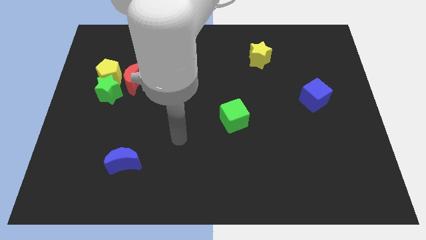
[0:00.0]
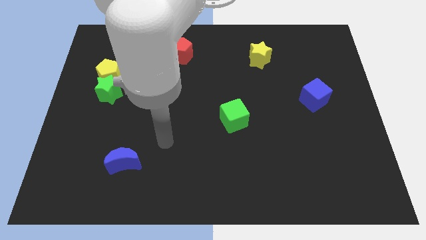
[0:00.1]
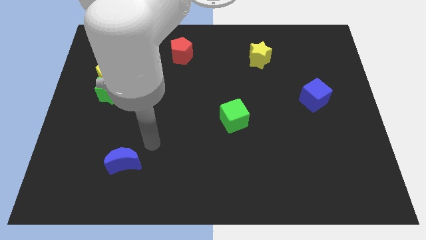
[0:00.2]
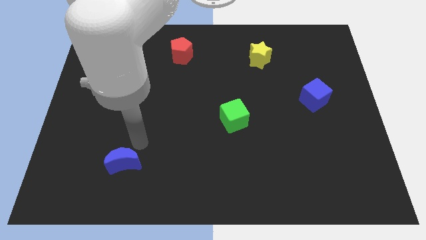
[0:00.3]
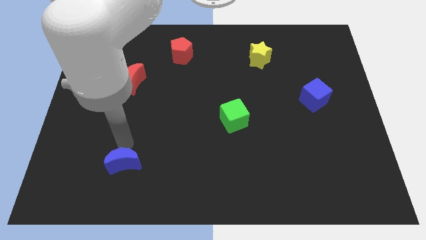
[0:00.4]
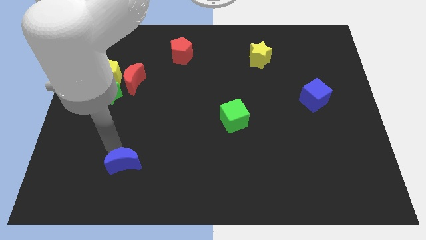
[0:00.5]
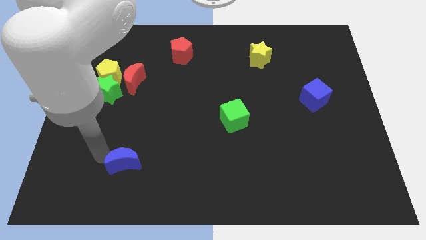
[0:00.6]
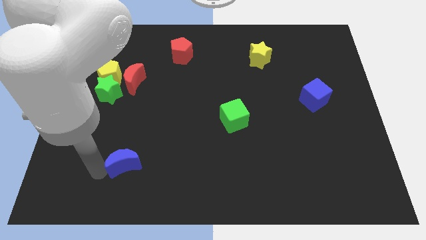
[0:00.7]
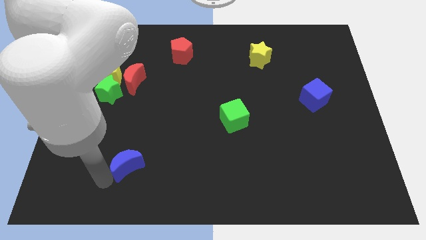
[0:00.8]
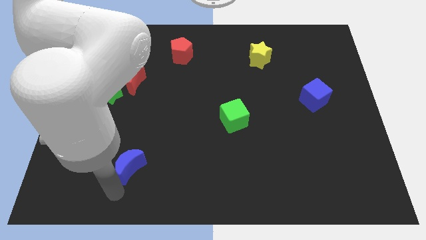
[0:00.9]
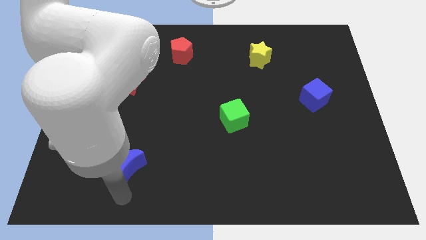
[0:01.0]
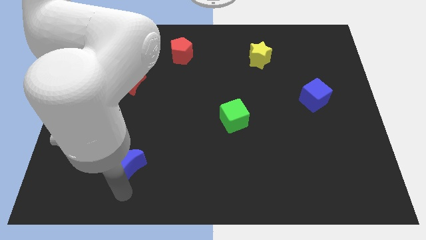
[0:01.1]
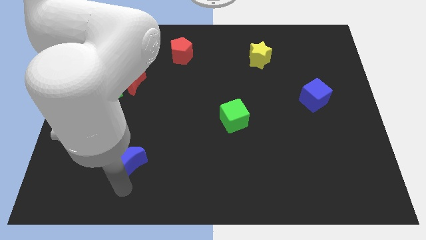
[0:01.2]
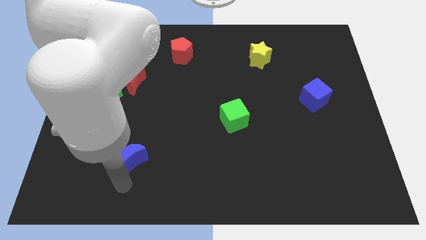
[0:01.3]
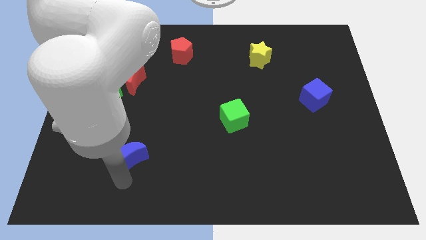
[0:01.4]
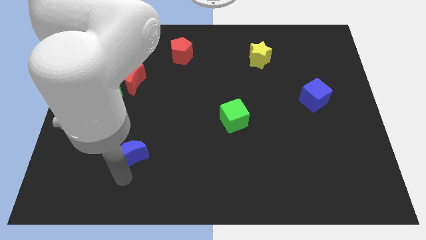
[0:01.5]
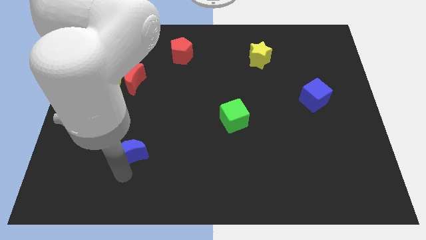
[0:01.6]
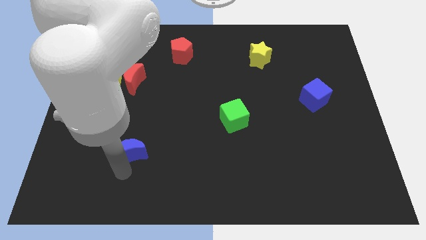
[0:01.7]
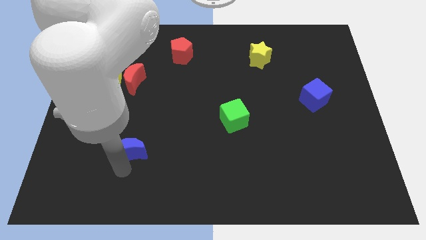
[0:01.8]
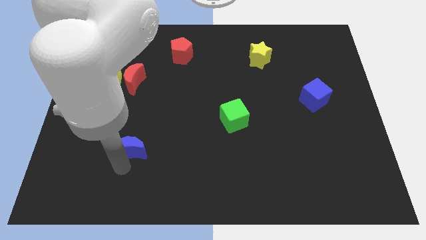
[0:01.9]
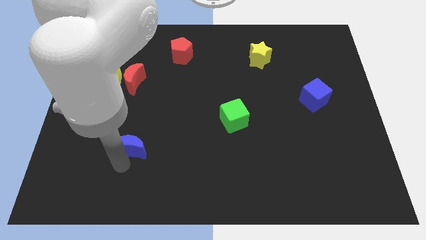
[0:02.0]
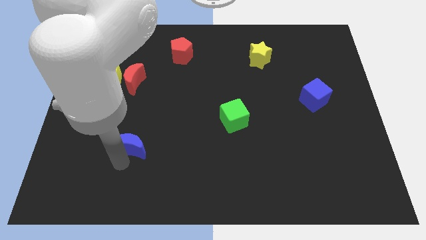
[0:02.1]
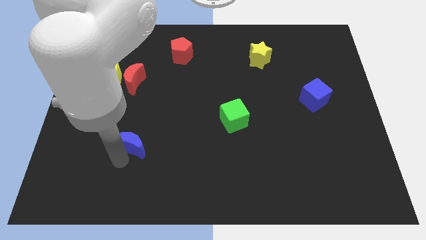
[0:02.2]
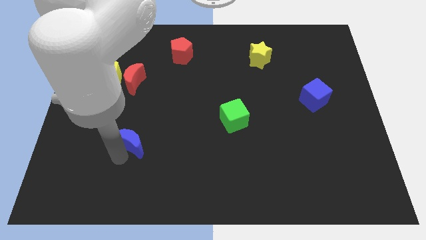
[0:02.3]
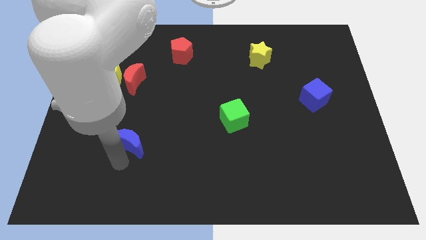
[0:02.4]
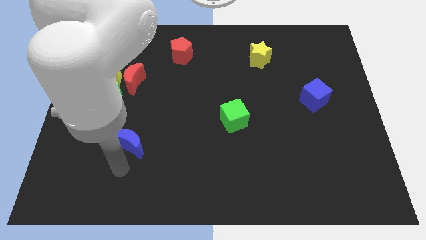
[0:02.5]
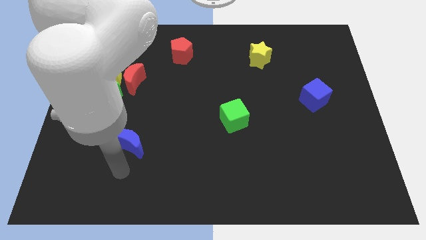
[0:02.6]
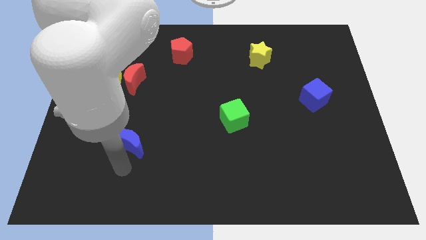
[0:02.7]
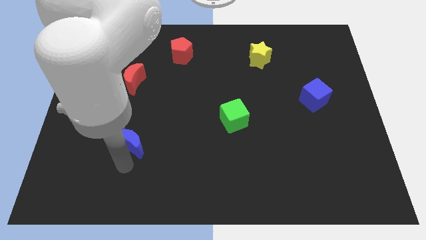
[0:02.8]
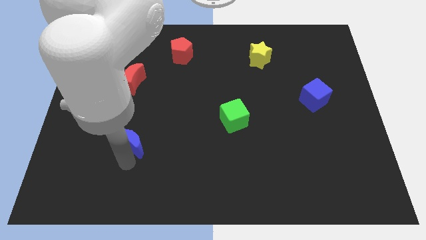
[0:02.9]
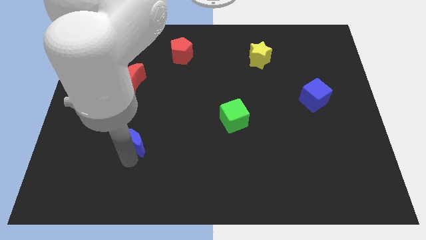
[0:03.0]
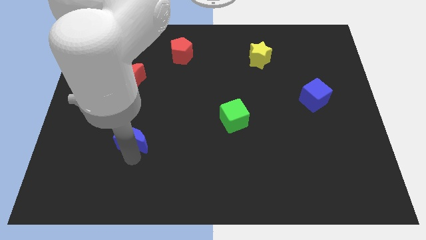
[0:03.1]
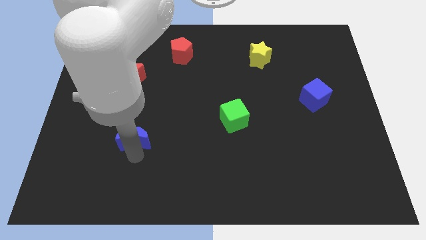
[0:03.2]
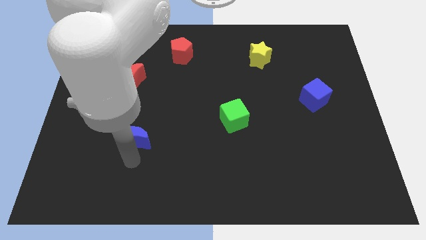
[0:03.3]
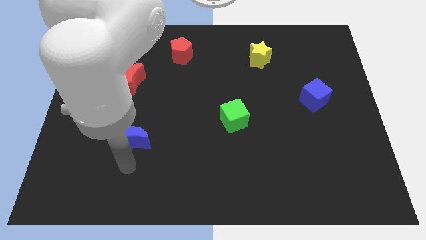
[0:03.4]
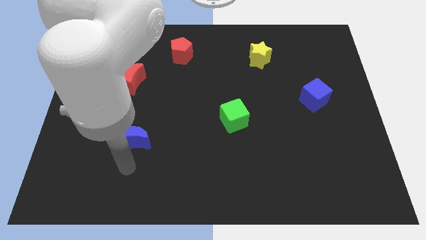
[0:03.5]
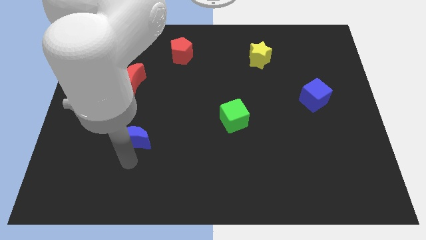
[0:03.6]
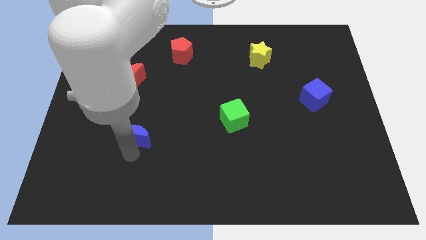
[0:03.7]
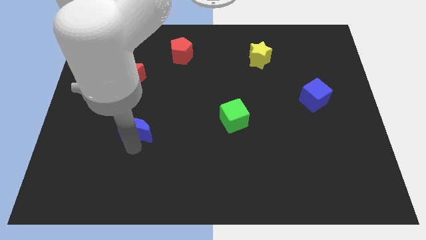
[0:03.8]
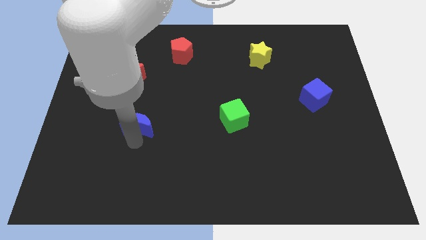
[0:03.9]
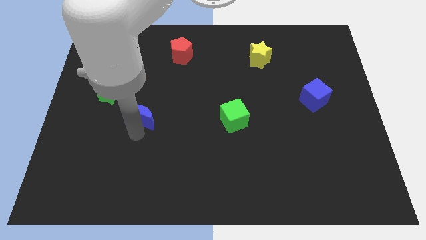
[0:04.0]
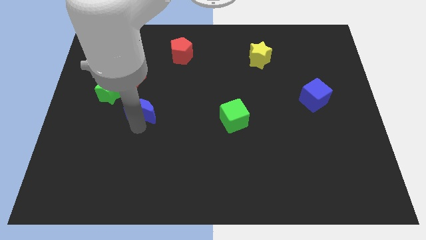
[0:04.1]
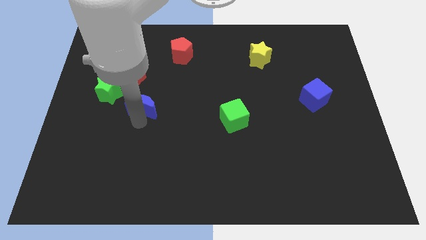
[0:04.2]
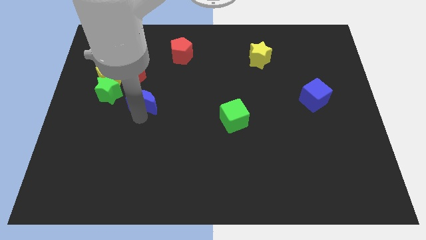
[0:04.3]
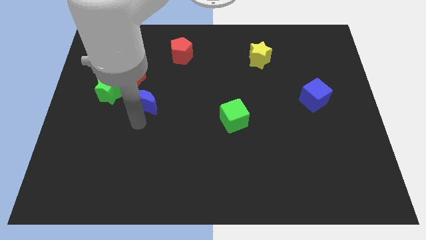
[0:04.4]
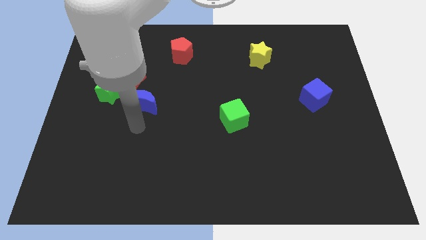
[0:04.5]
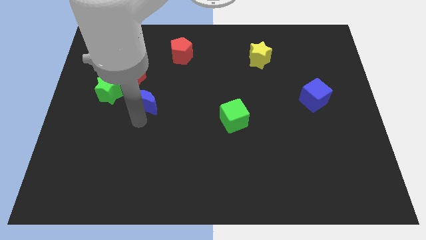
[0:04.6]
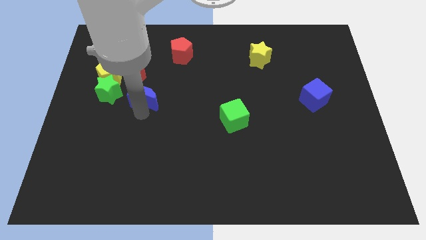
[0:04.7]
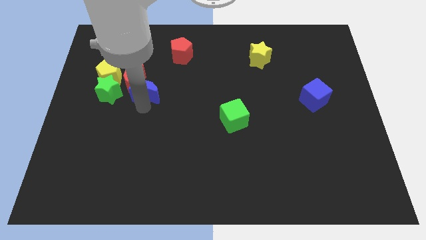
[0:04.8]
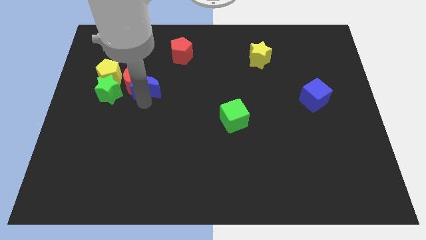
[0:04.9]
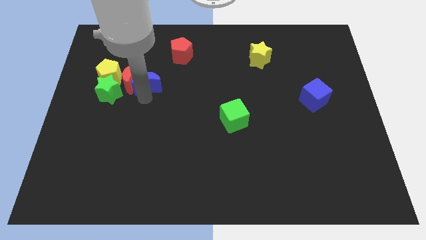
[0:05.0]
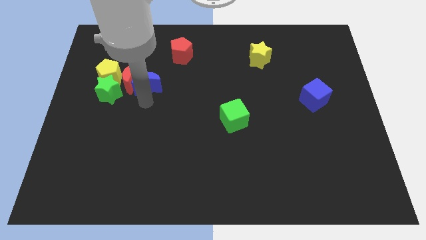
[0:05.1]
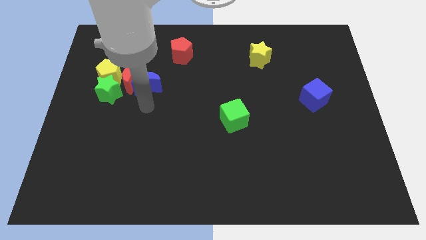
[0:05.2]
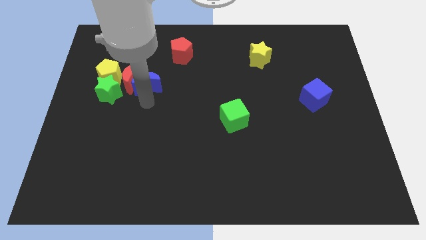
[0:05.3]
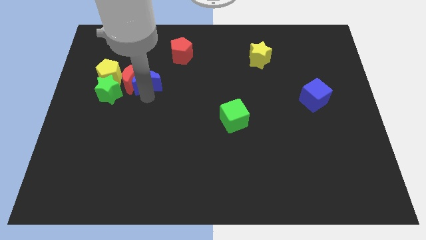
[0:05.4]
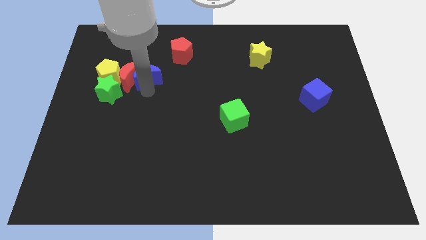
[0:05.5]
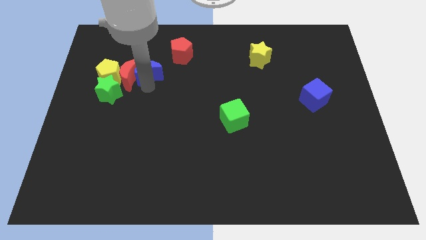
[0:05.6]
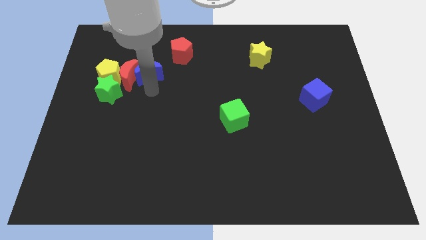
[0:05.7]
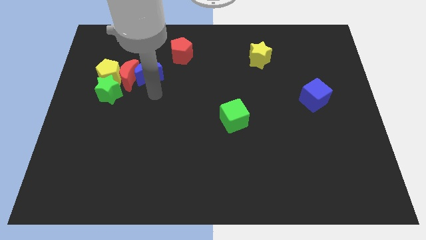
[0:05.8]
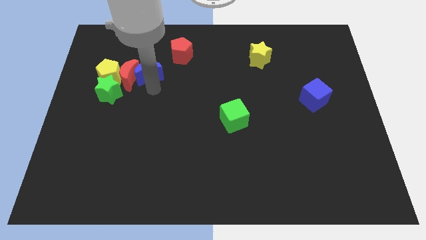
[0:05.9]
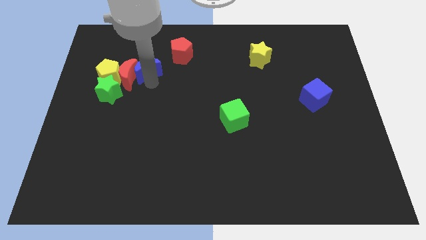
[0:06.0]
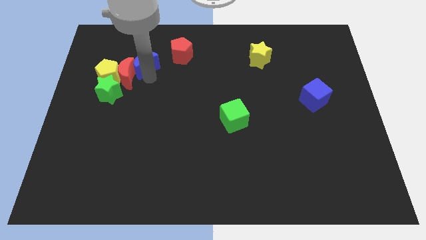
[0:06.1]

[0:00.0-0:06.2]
put the blue moon to the left of the red pentagon

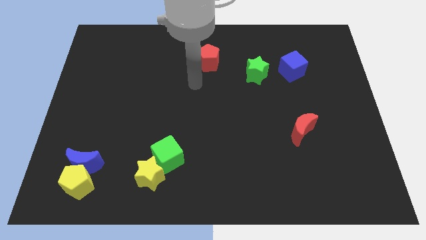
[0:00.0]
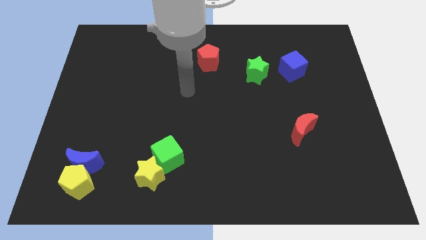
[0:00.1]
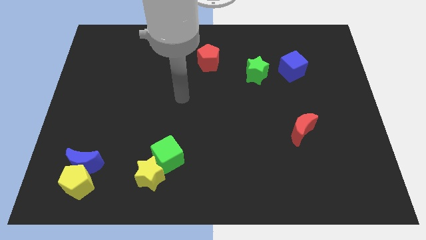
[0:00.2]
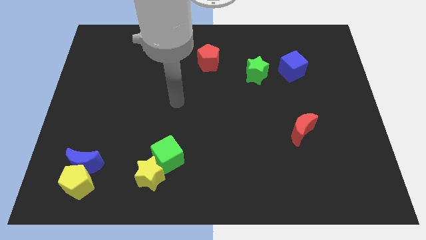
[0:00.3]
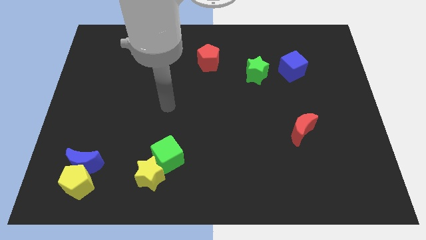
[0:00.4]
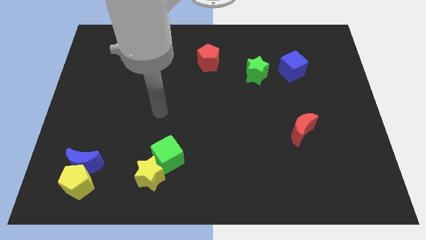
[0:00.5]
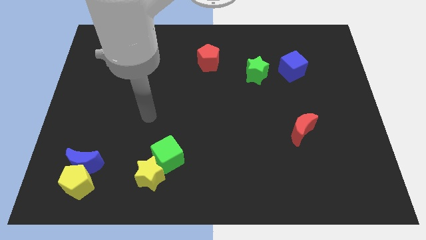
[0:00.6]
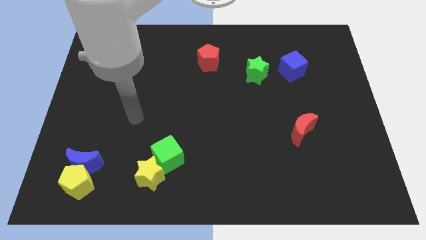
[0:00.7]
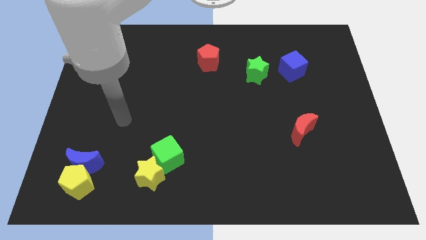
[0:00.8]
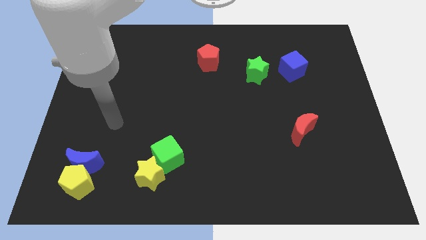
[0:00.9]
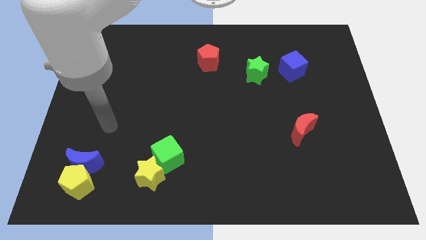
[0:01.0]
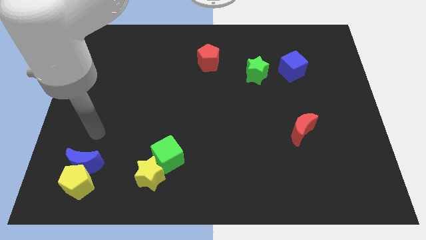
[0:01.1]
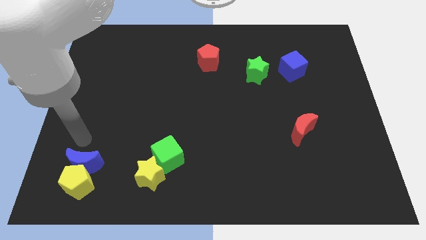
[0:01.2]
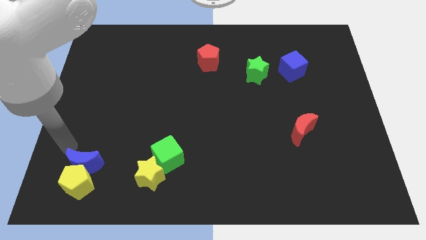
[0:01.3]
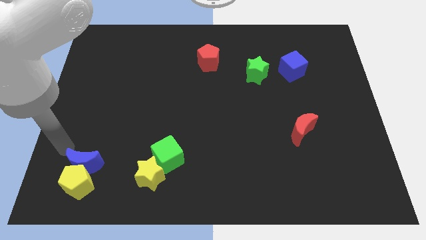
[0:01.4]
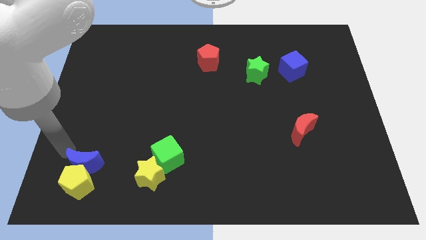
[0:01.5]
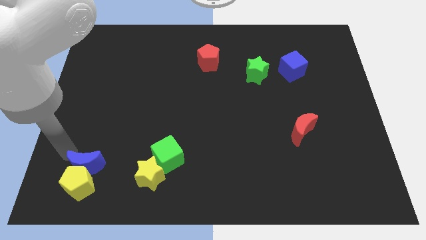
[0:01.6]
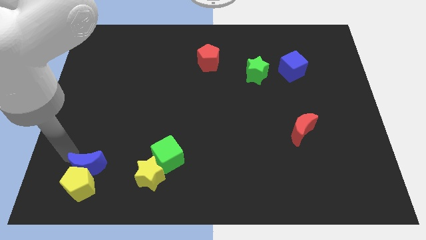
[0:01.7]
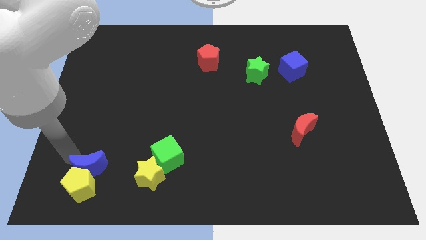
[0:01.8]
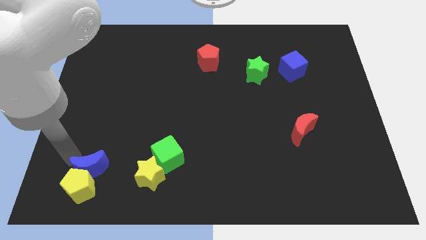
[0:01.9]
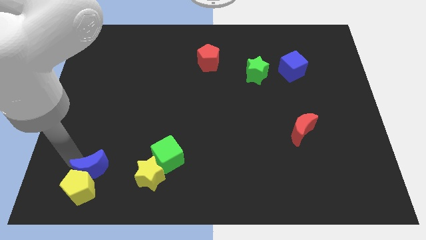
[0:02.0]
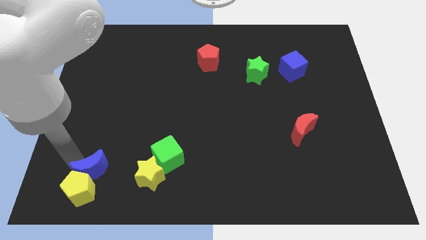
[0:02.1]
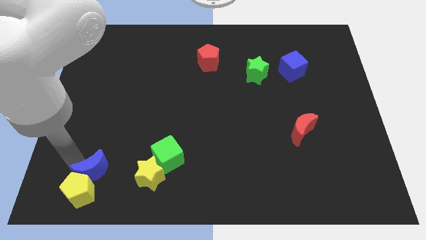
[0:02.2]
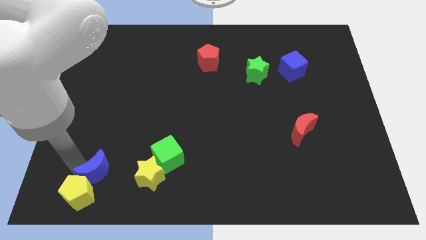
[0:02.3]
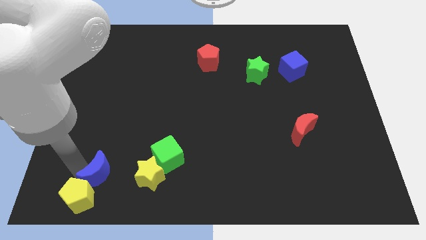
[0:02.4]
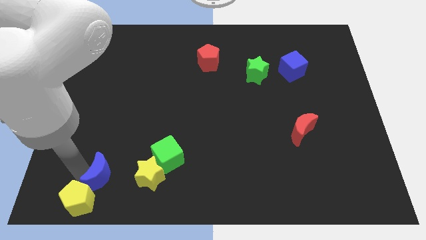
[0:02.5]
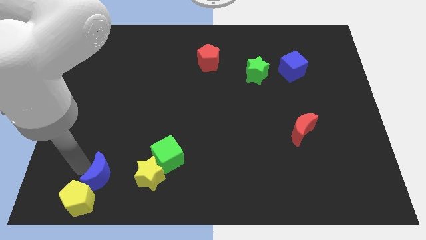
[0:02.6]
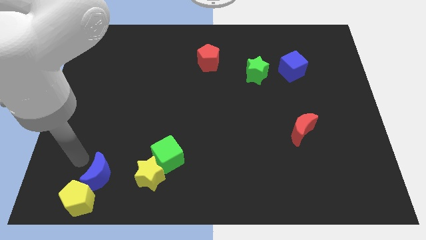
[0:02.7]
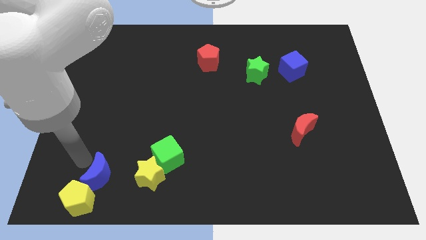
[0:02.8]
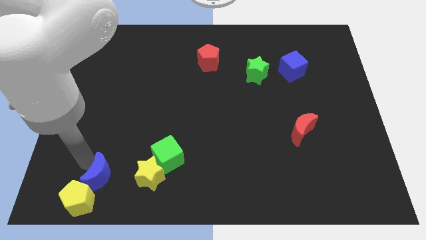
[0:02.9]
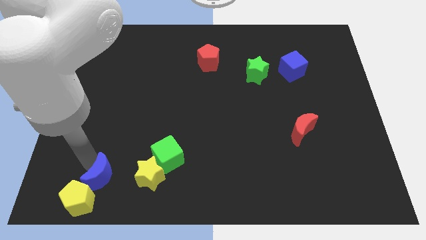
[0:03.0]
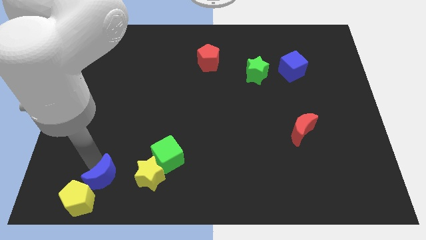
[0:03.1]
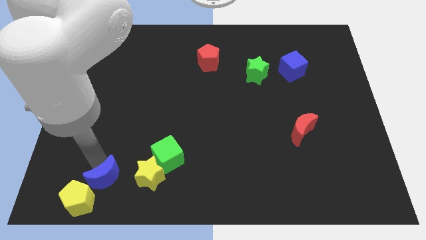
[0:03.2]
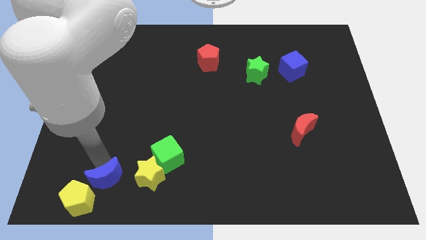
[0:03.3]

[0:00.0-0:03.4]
move the blue moon just right of the yellow pentagon
